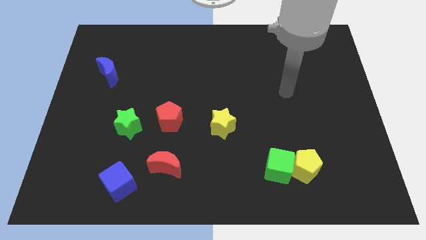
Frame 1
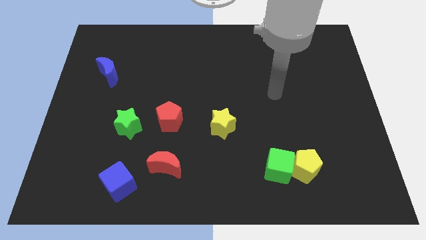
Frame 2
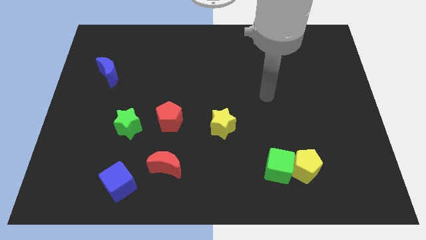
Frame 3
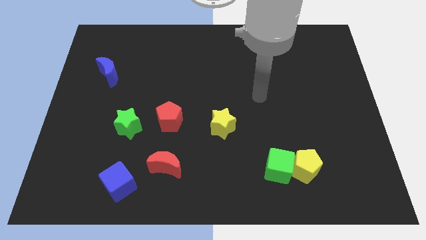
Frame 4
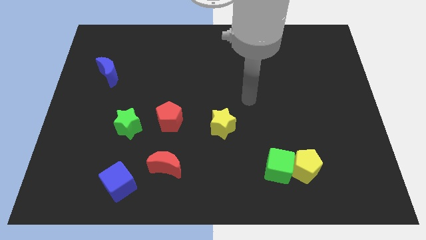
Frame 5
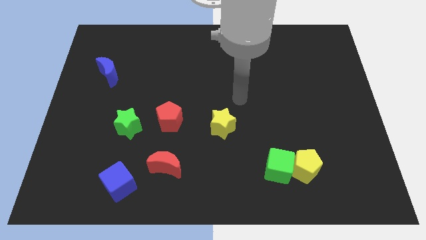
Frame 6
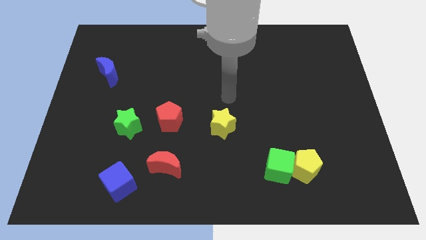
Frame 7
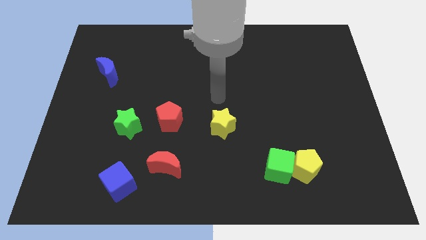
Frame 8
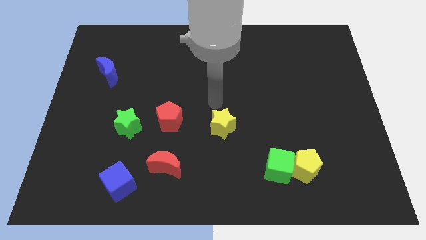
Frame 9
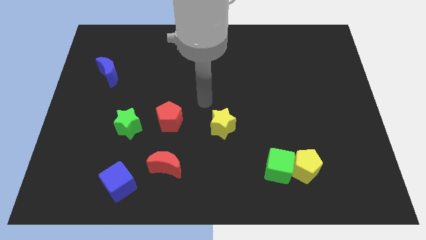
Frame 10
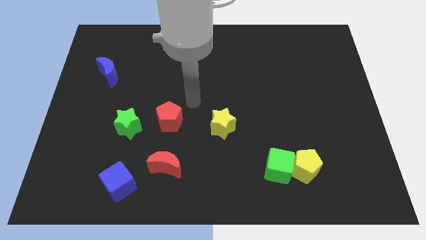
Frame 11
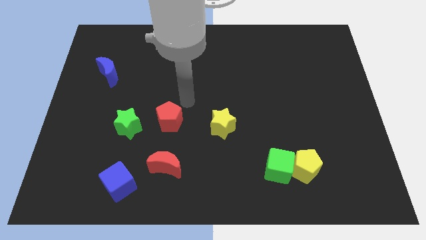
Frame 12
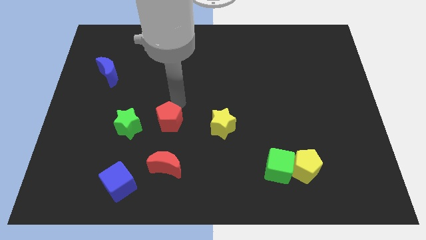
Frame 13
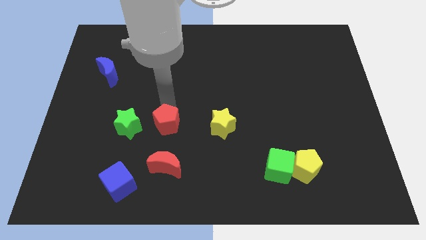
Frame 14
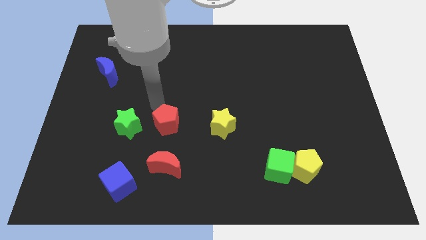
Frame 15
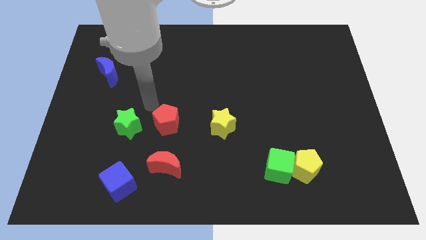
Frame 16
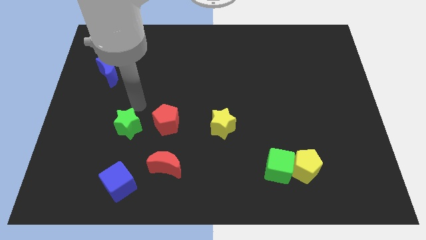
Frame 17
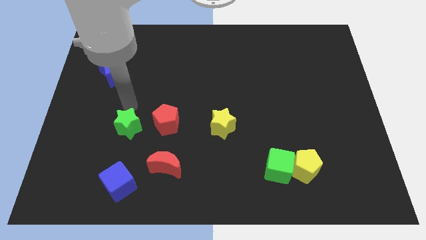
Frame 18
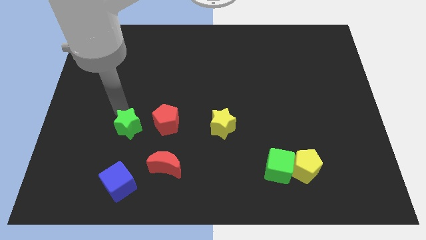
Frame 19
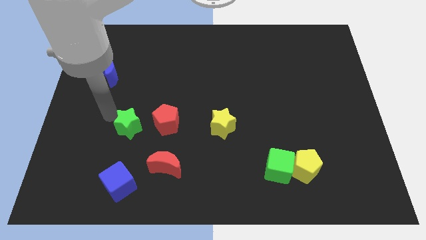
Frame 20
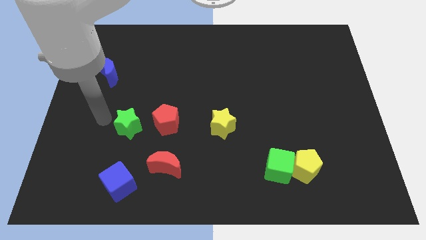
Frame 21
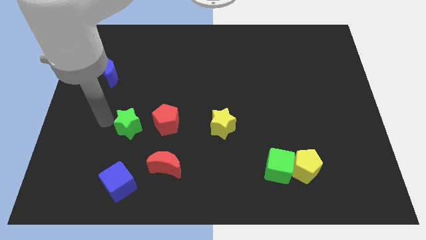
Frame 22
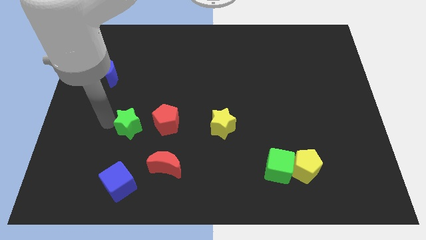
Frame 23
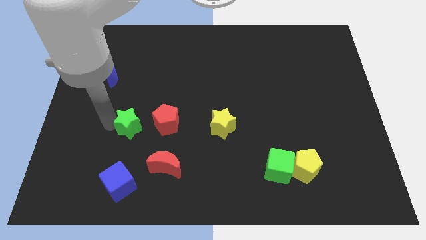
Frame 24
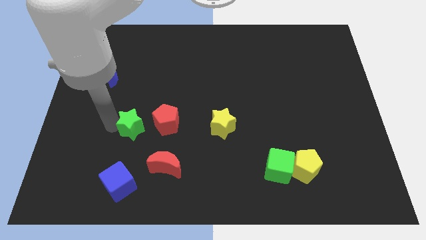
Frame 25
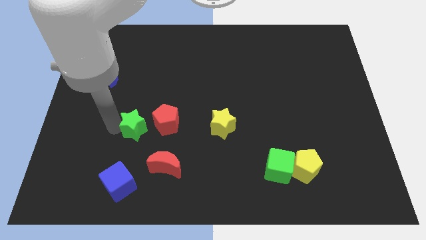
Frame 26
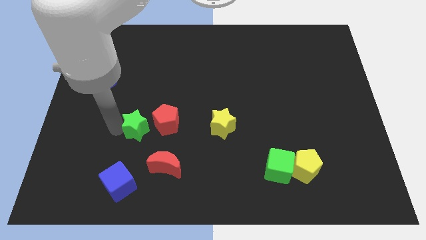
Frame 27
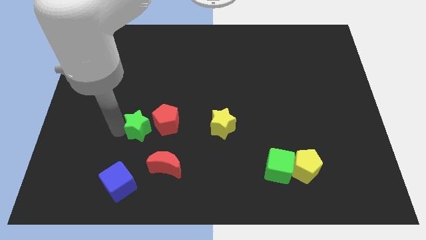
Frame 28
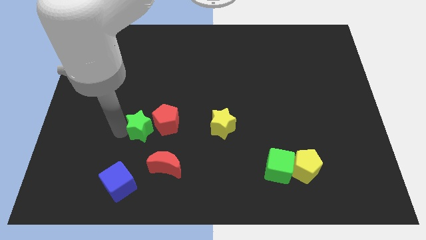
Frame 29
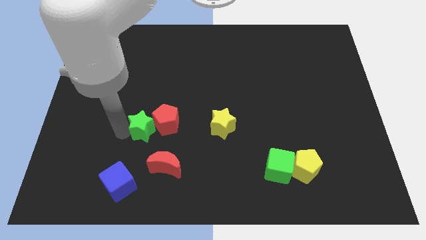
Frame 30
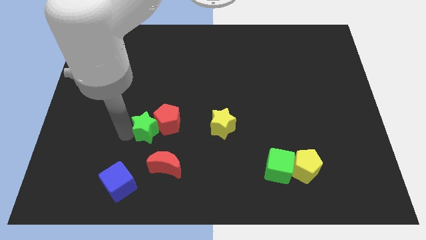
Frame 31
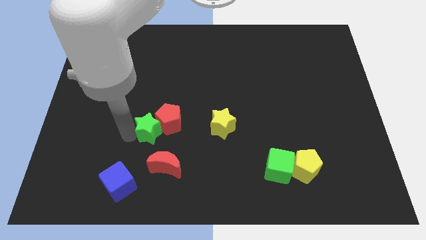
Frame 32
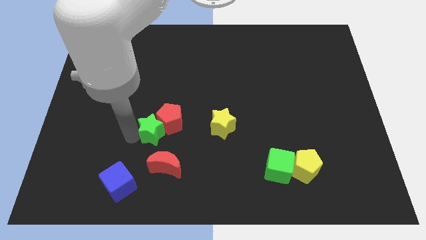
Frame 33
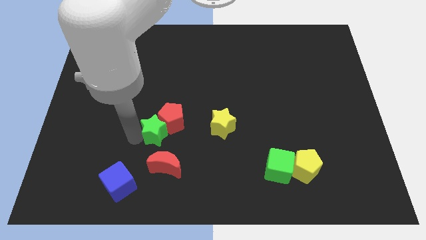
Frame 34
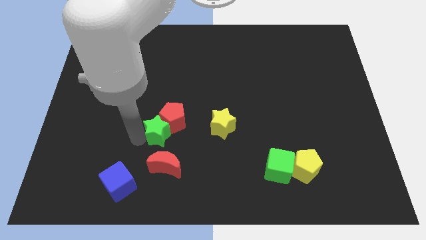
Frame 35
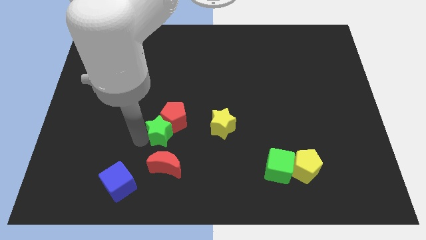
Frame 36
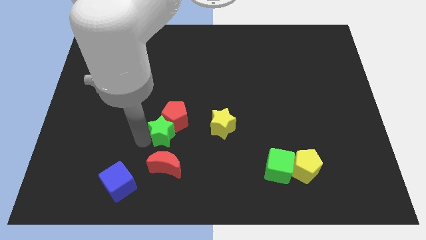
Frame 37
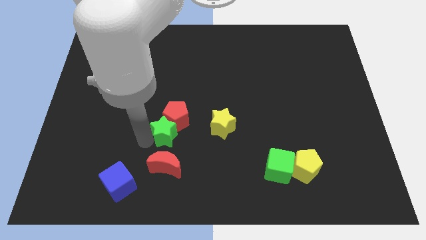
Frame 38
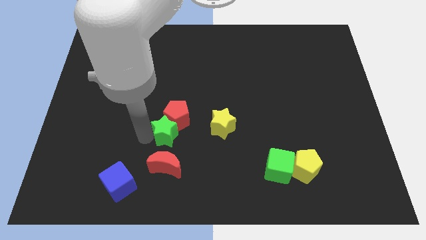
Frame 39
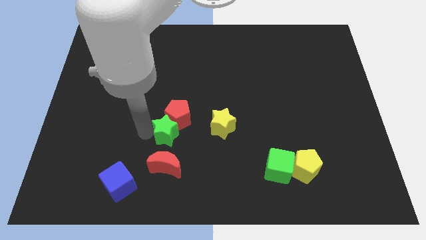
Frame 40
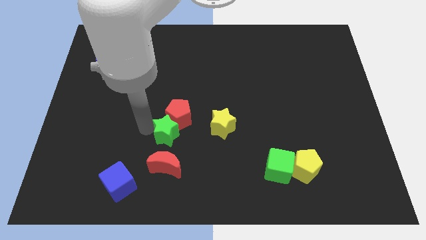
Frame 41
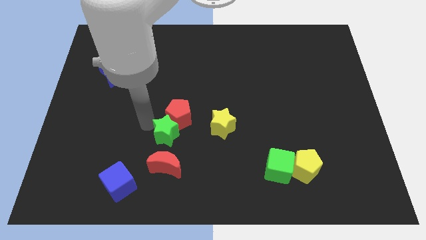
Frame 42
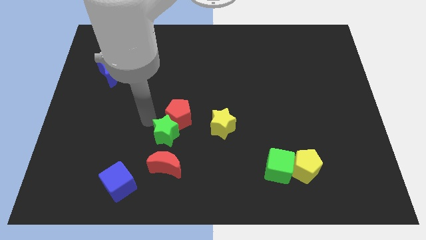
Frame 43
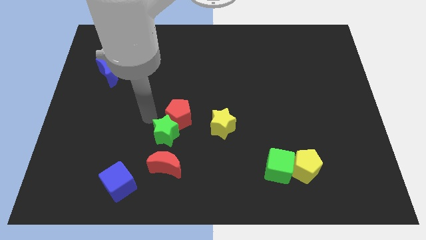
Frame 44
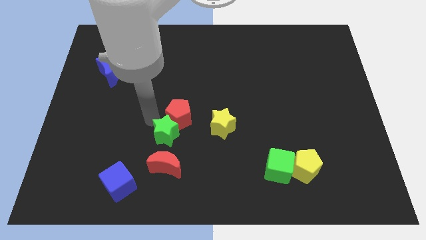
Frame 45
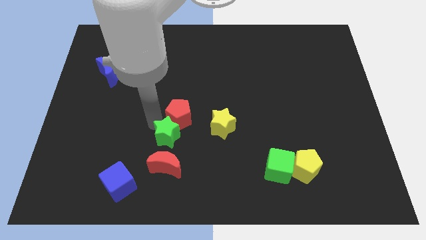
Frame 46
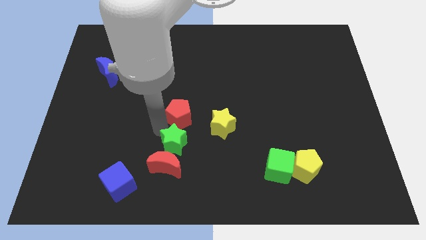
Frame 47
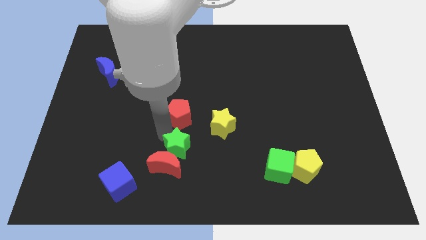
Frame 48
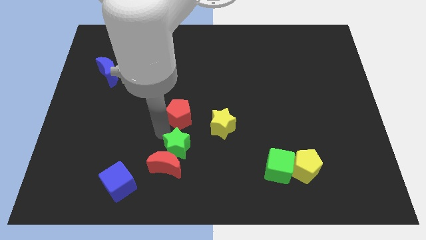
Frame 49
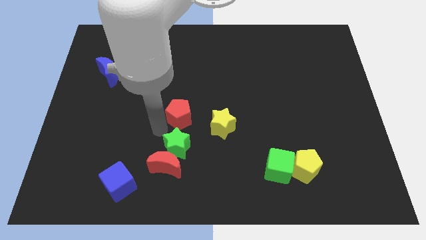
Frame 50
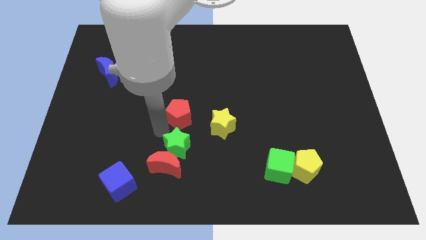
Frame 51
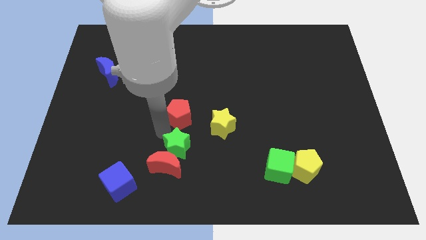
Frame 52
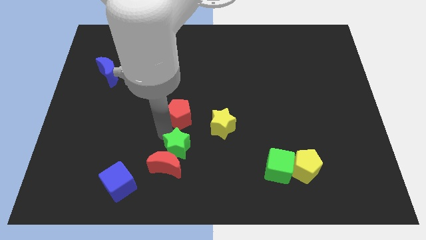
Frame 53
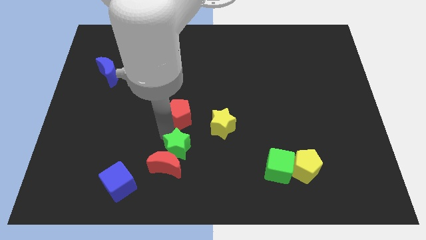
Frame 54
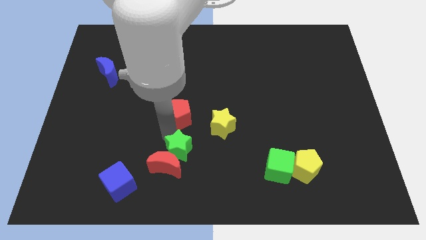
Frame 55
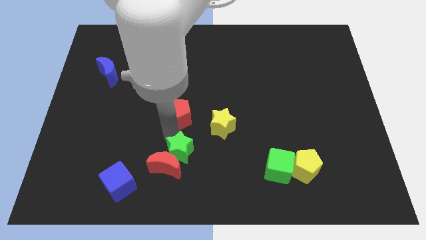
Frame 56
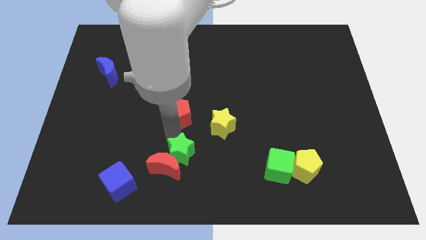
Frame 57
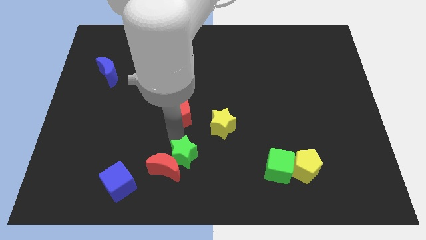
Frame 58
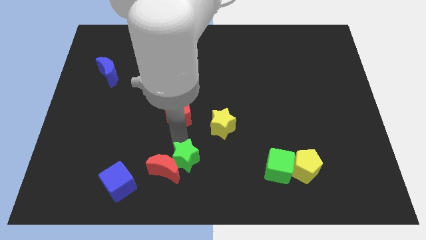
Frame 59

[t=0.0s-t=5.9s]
push the green star to the bottom

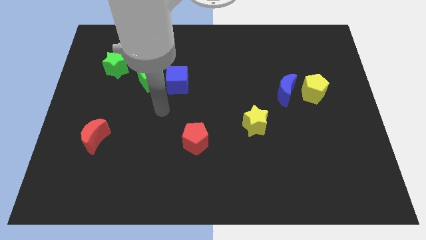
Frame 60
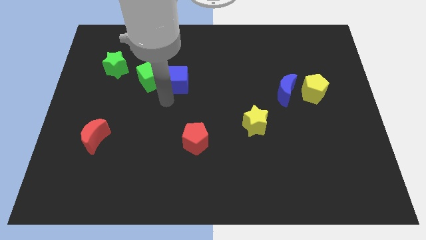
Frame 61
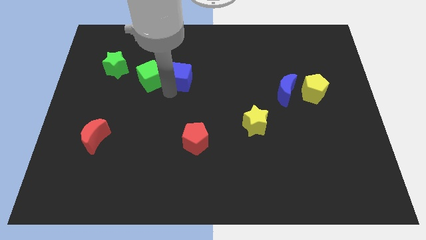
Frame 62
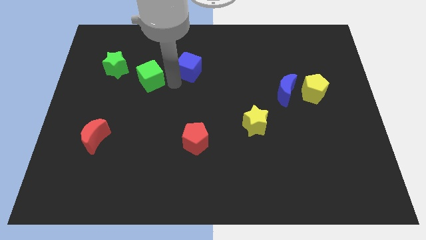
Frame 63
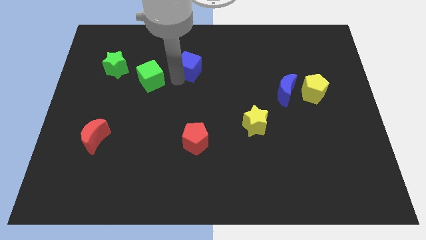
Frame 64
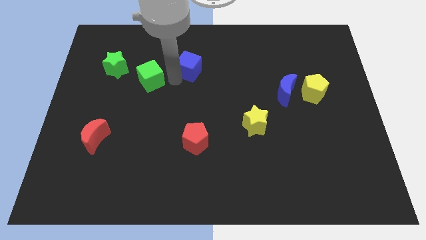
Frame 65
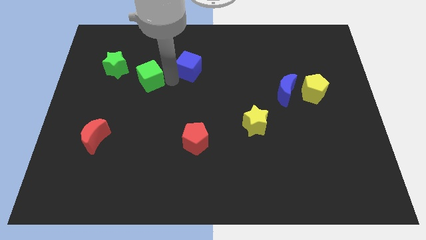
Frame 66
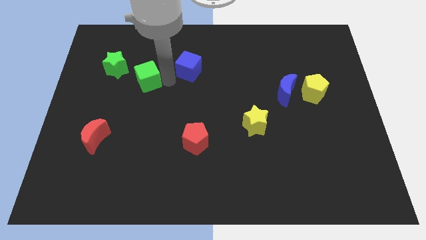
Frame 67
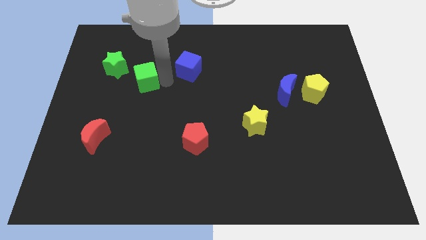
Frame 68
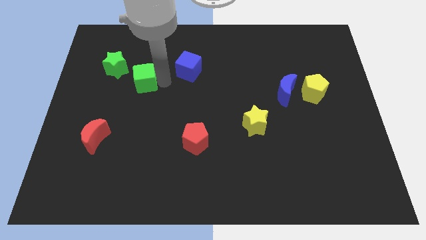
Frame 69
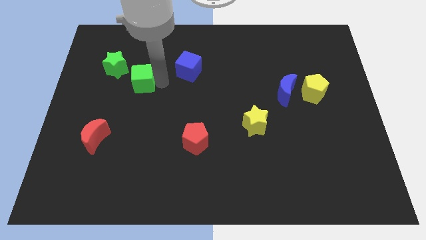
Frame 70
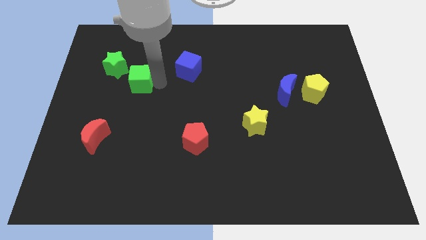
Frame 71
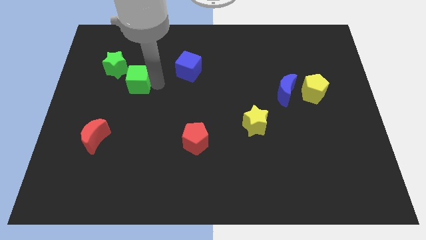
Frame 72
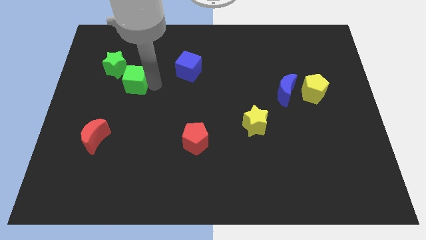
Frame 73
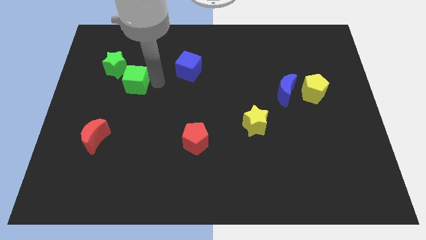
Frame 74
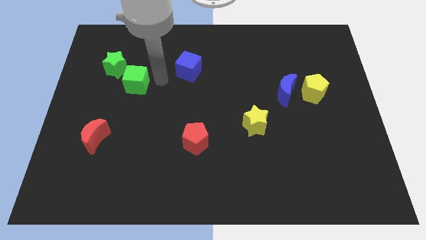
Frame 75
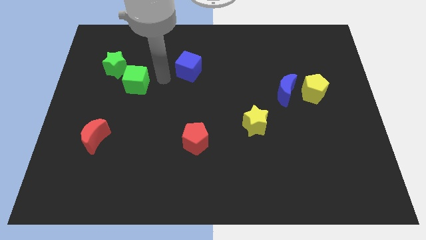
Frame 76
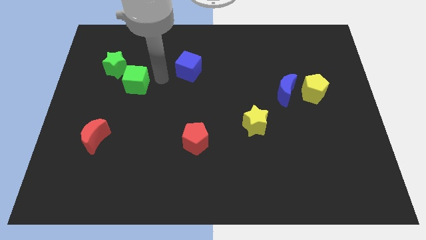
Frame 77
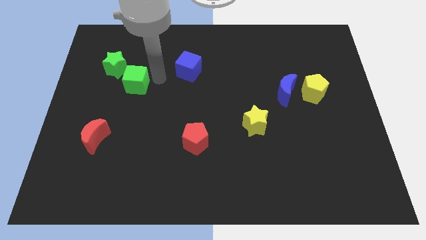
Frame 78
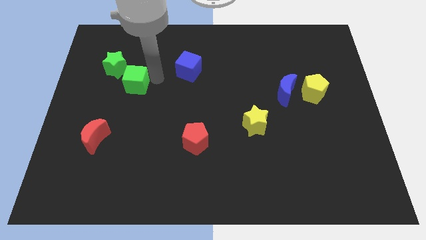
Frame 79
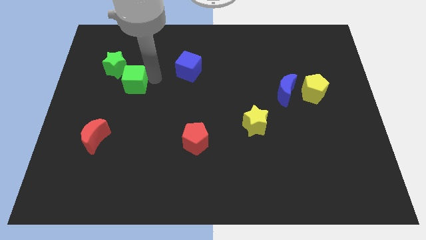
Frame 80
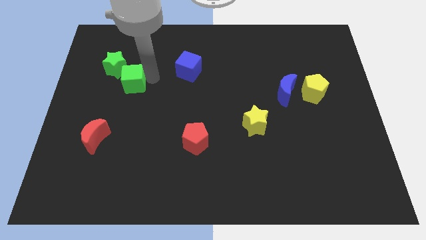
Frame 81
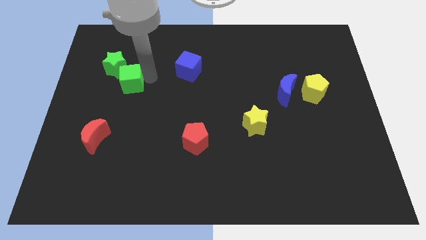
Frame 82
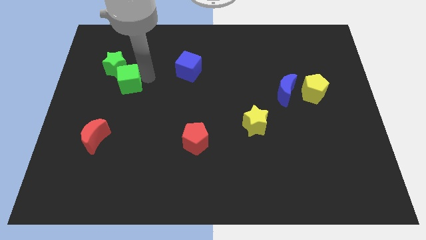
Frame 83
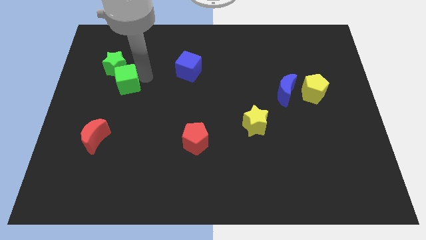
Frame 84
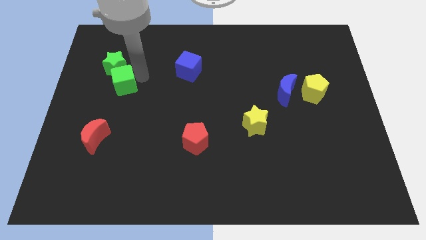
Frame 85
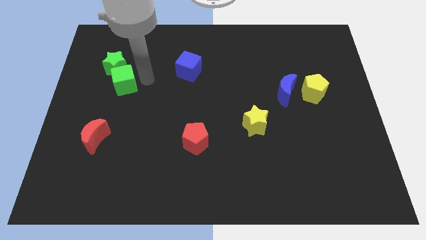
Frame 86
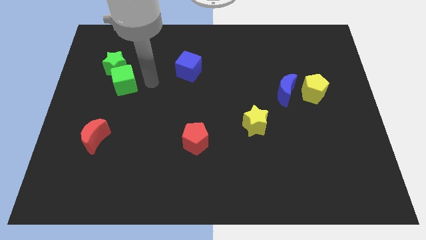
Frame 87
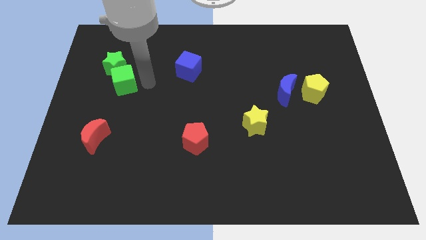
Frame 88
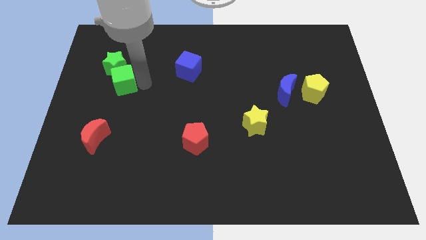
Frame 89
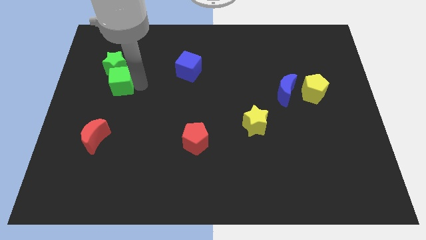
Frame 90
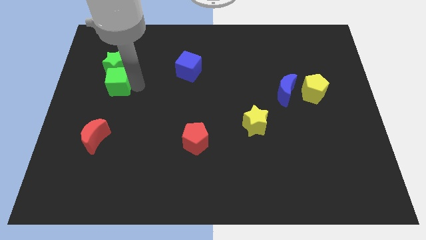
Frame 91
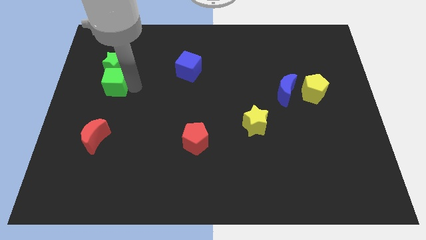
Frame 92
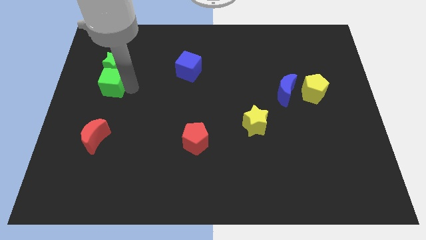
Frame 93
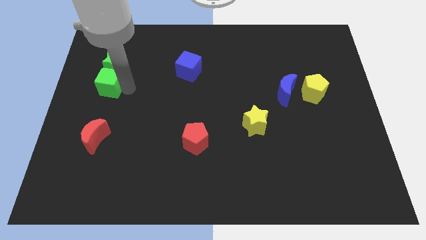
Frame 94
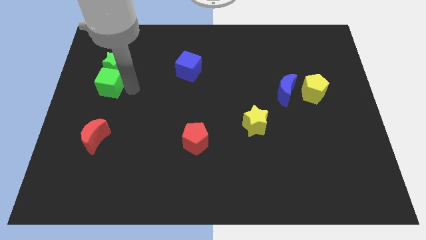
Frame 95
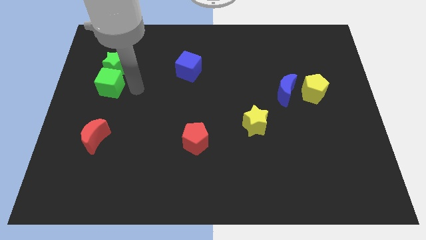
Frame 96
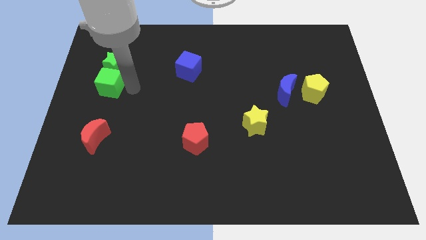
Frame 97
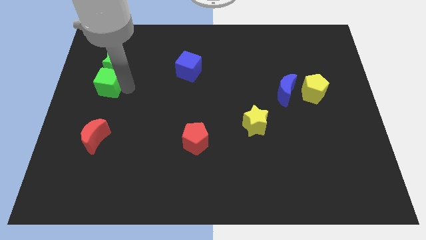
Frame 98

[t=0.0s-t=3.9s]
push the green cube to the left side of the board
